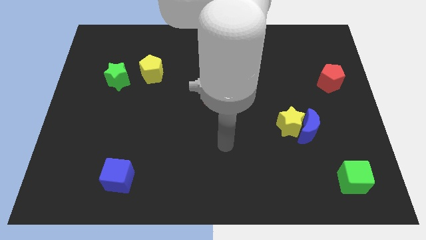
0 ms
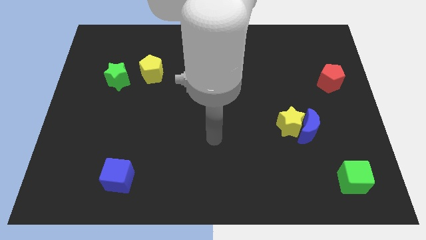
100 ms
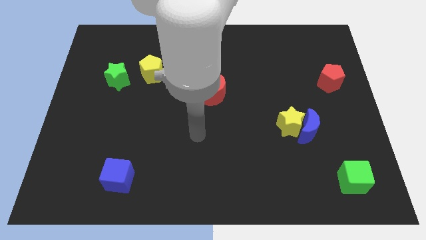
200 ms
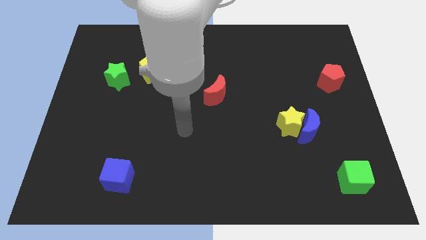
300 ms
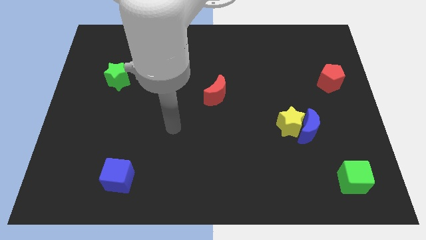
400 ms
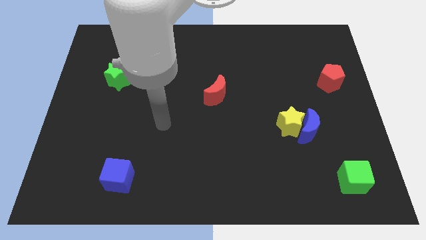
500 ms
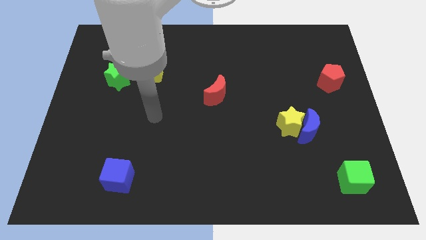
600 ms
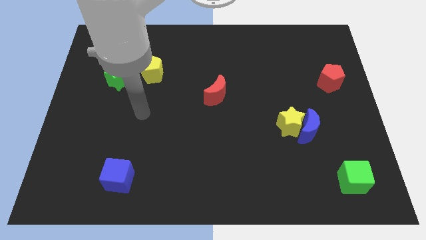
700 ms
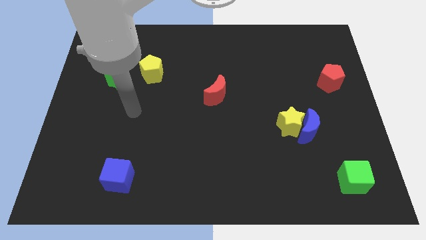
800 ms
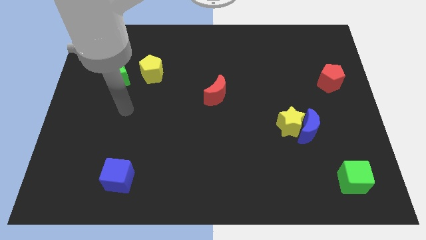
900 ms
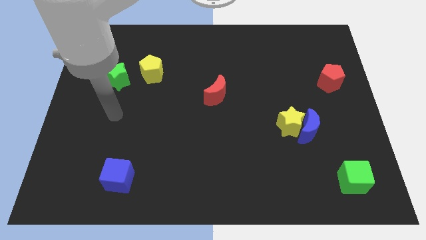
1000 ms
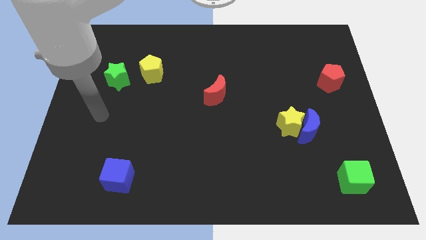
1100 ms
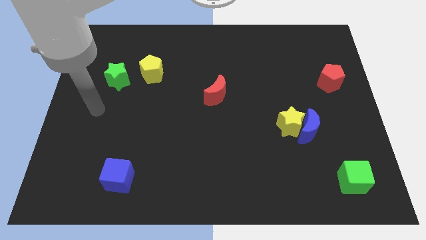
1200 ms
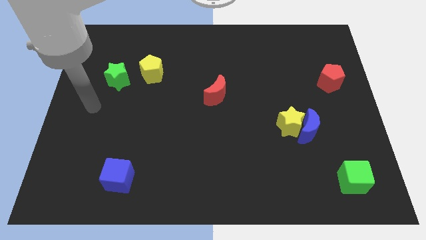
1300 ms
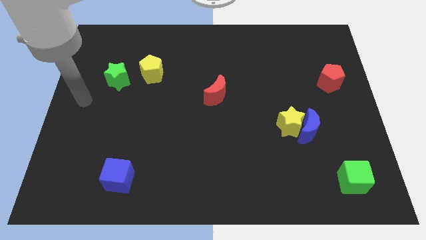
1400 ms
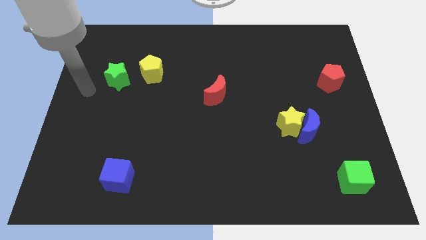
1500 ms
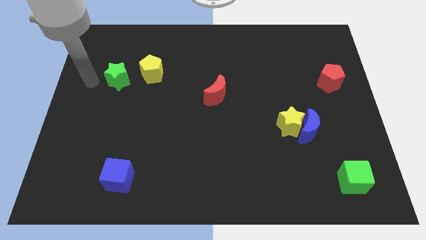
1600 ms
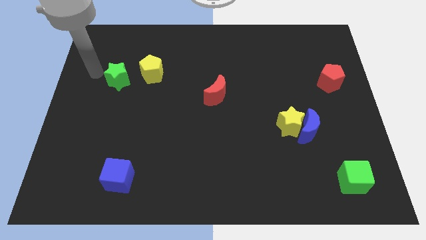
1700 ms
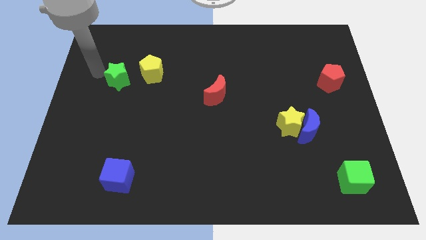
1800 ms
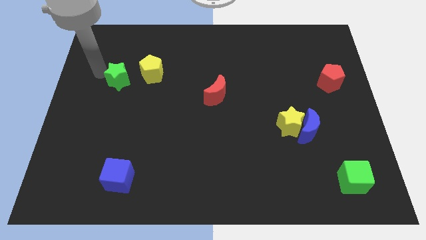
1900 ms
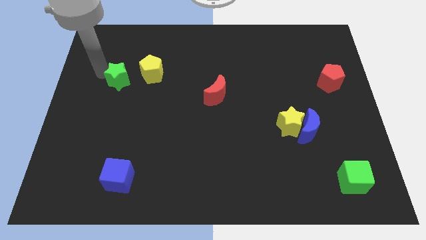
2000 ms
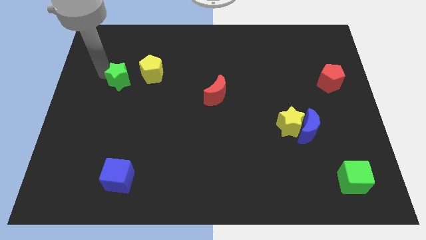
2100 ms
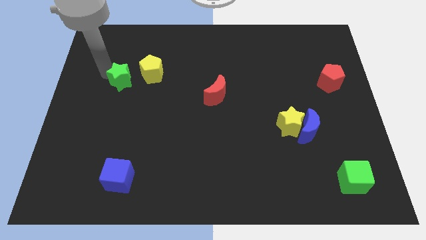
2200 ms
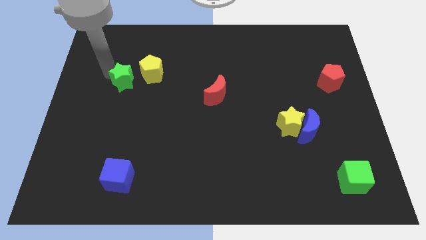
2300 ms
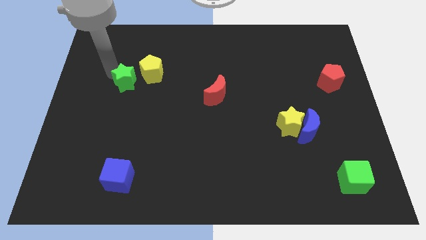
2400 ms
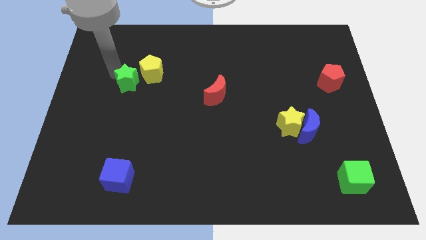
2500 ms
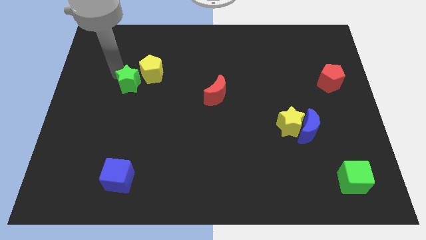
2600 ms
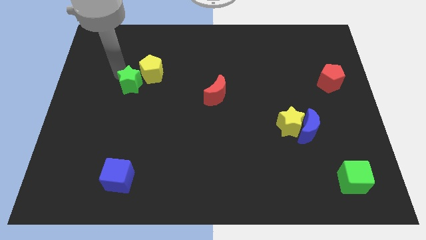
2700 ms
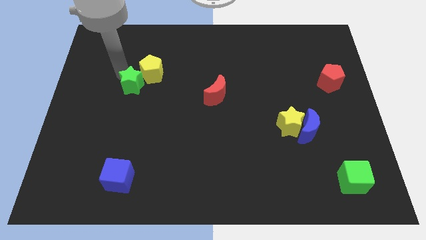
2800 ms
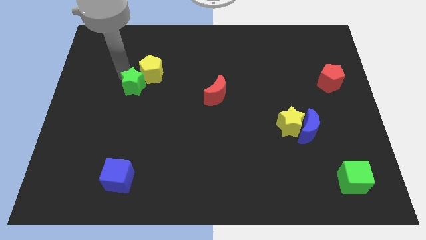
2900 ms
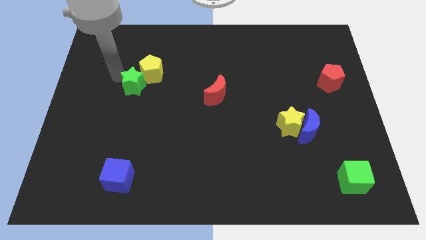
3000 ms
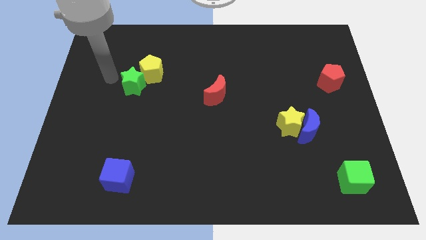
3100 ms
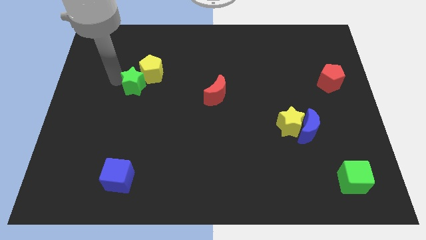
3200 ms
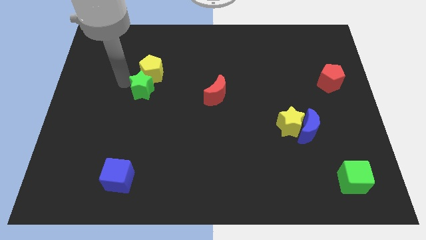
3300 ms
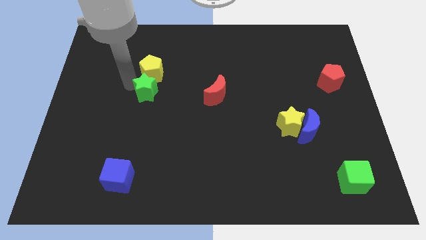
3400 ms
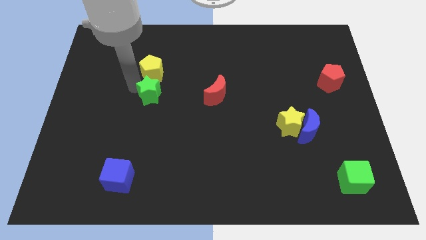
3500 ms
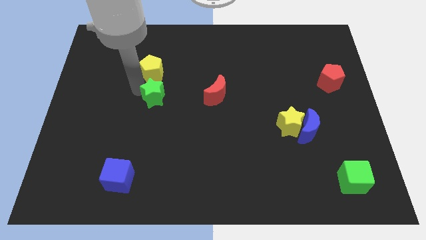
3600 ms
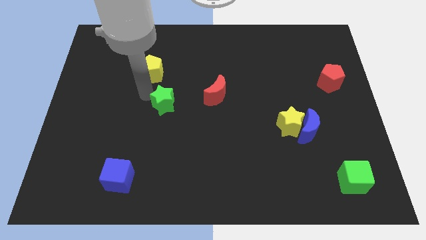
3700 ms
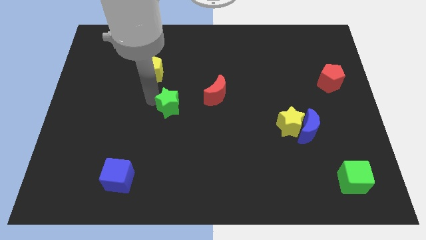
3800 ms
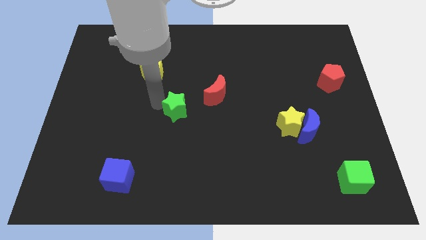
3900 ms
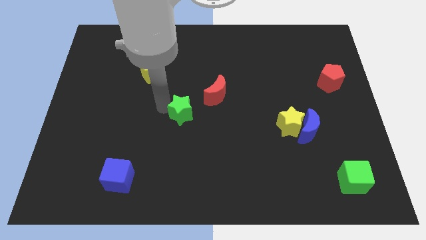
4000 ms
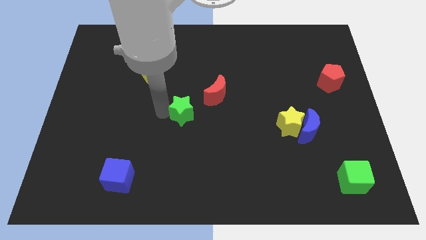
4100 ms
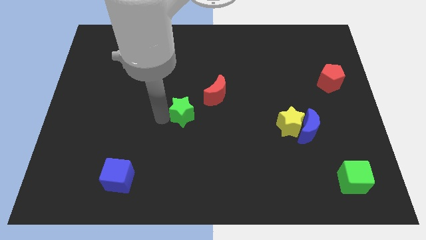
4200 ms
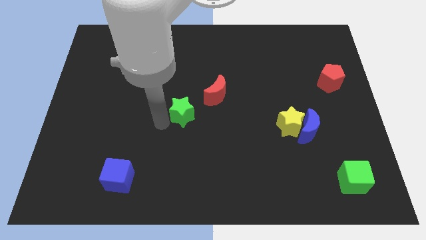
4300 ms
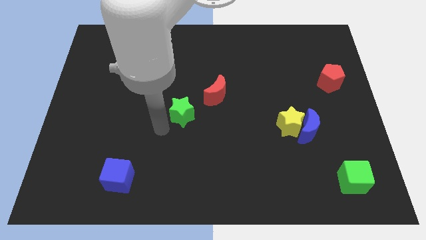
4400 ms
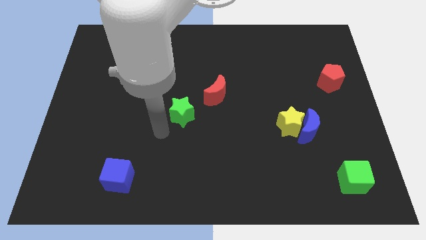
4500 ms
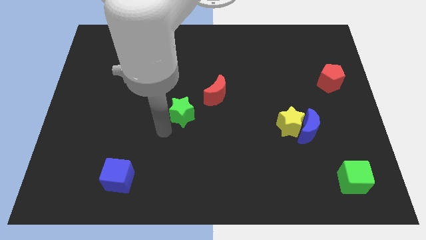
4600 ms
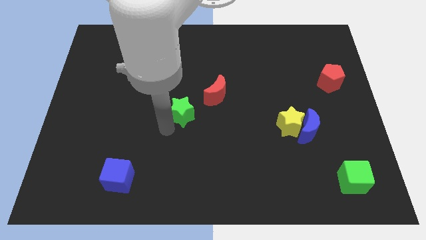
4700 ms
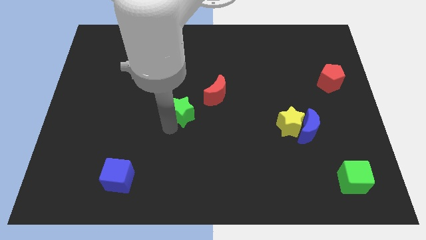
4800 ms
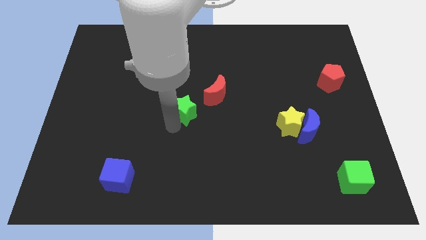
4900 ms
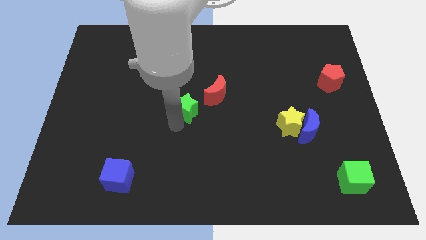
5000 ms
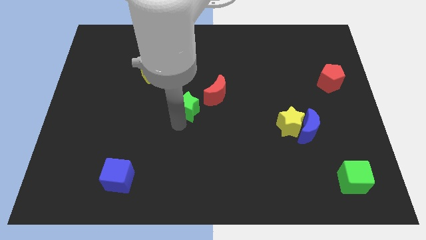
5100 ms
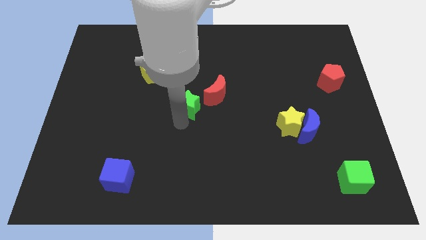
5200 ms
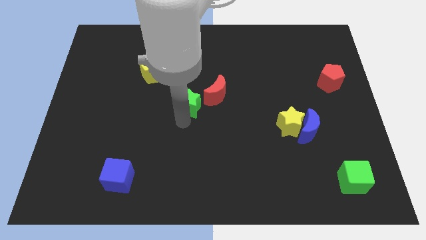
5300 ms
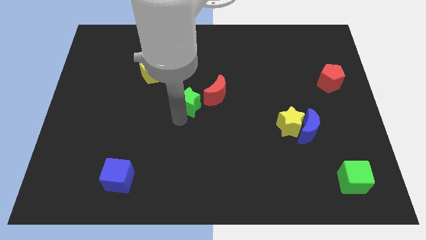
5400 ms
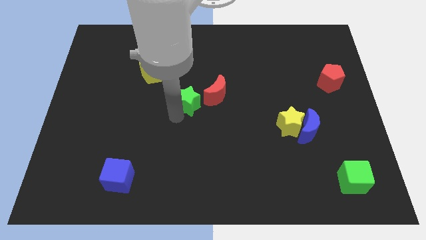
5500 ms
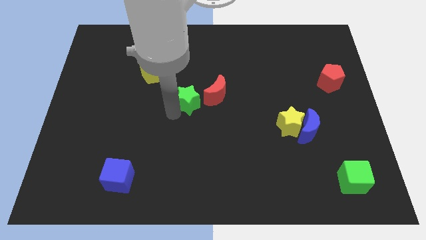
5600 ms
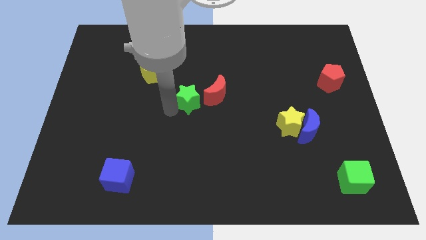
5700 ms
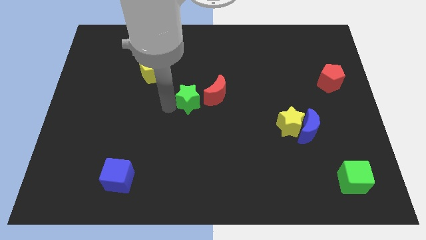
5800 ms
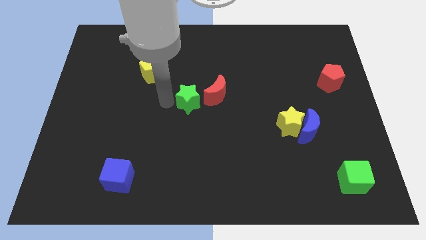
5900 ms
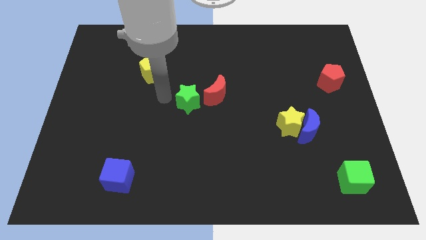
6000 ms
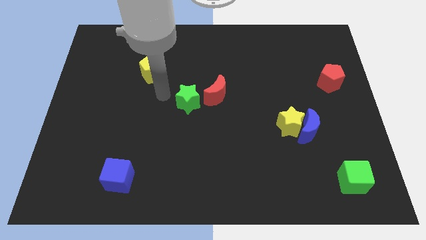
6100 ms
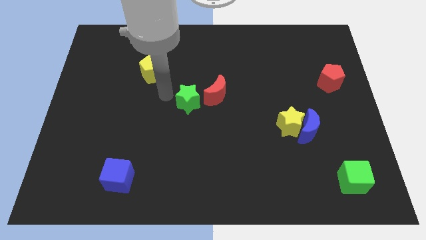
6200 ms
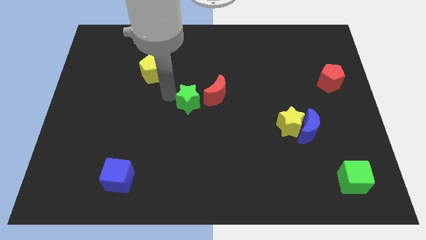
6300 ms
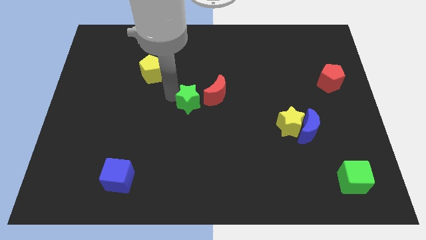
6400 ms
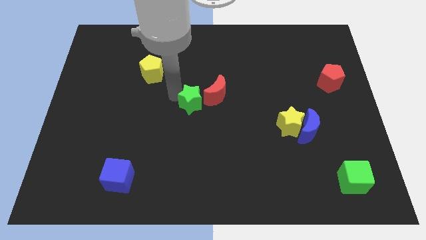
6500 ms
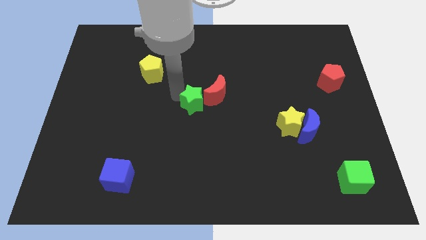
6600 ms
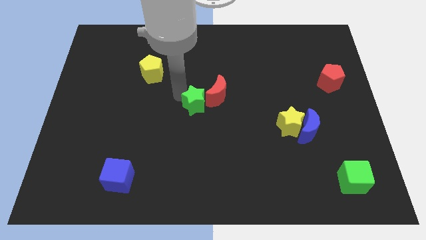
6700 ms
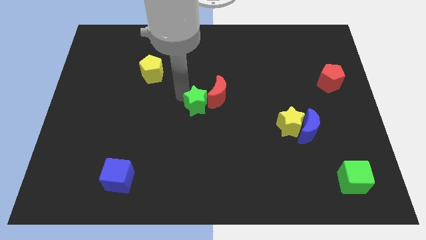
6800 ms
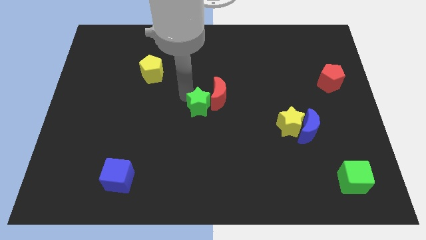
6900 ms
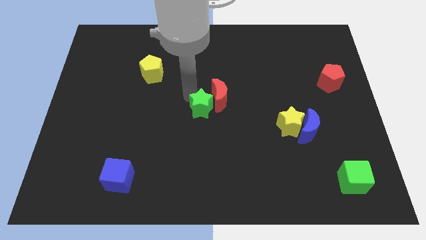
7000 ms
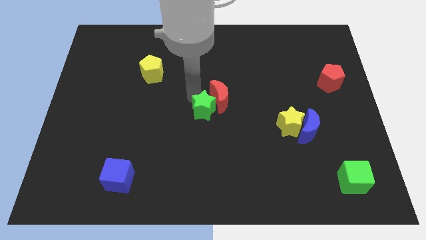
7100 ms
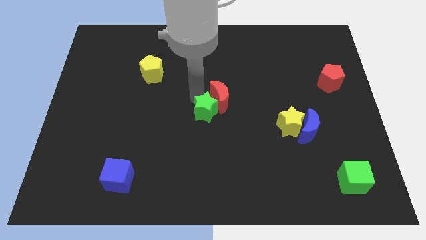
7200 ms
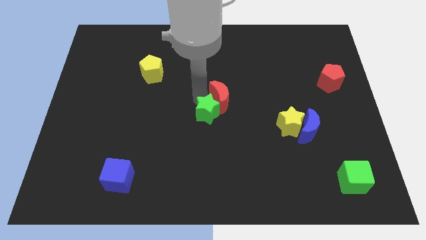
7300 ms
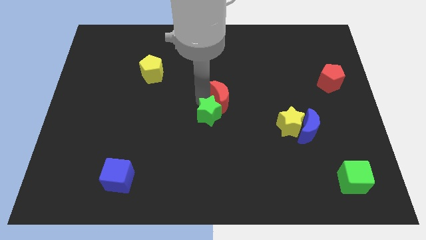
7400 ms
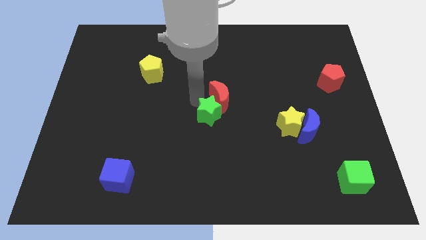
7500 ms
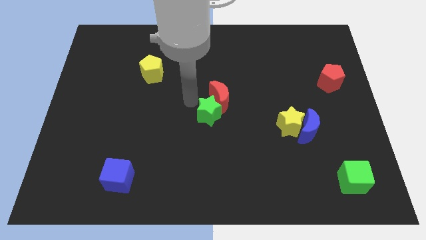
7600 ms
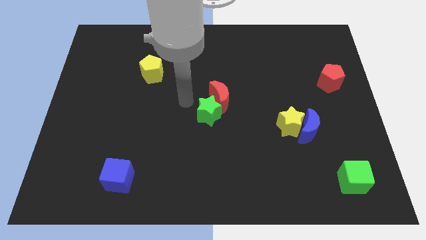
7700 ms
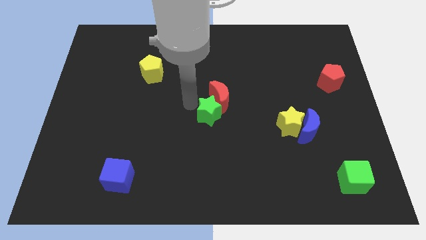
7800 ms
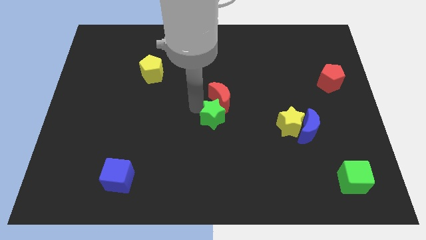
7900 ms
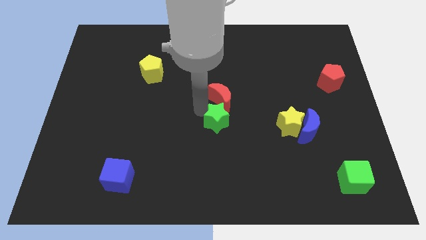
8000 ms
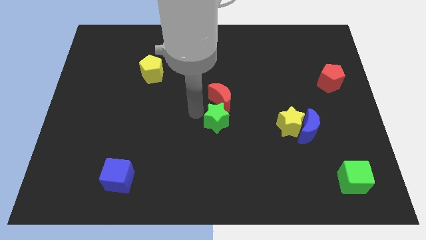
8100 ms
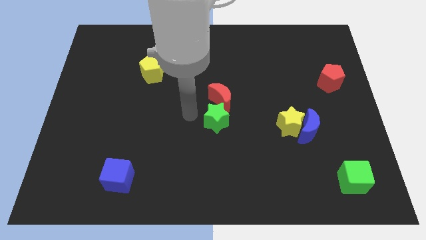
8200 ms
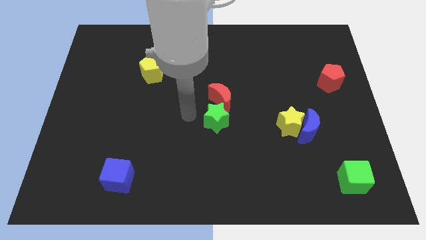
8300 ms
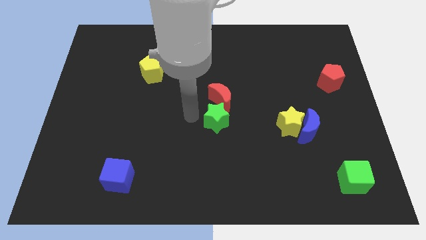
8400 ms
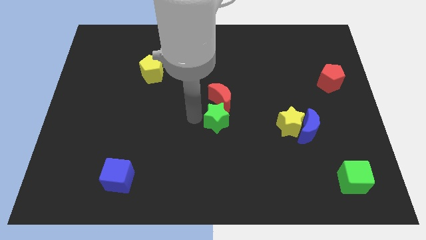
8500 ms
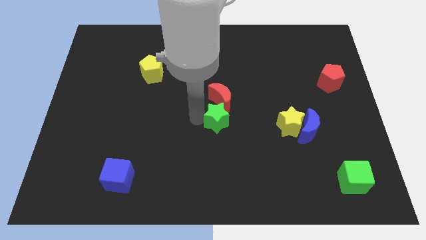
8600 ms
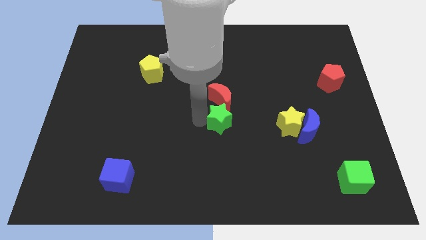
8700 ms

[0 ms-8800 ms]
push the green star to the left side of the yellow star
